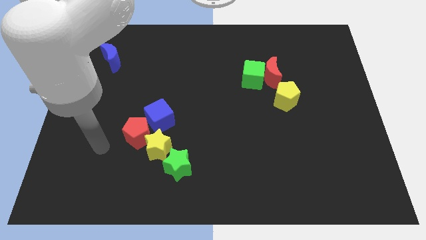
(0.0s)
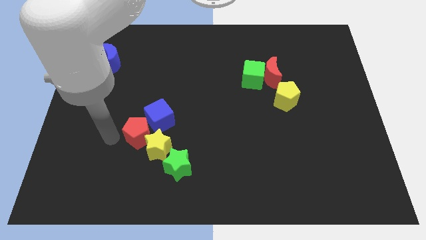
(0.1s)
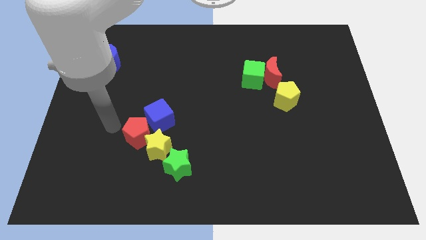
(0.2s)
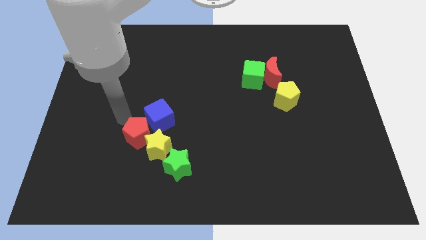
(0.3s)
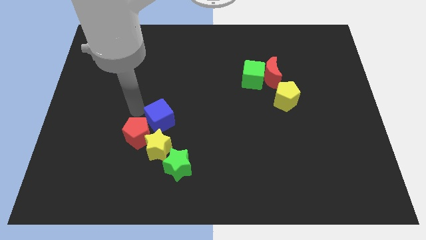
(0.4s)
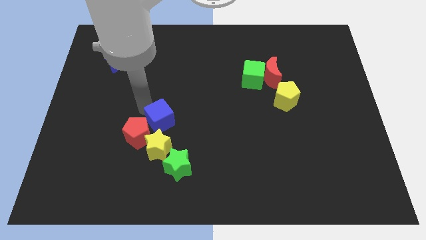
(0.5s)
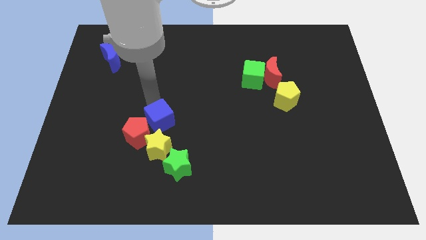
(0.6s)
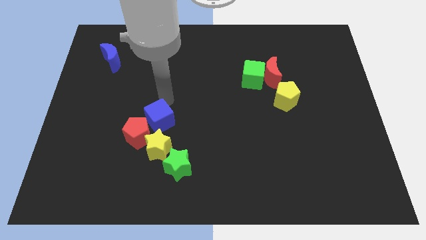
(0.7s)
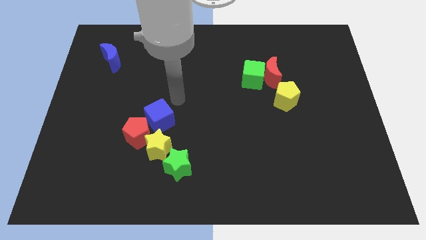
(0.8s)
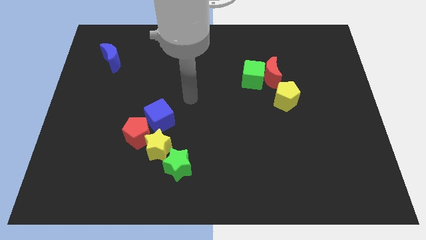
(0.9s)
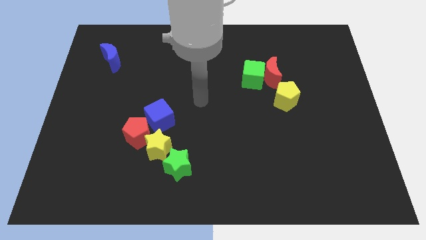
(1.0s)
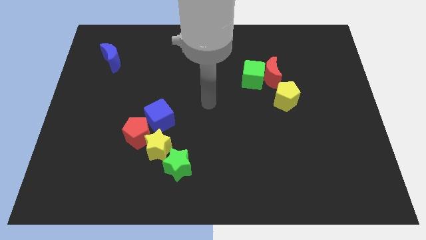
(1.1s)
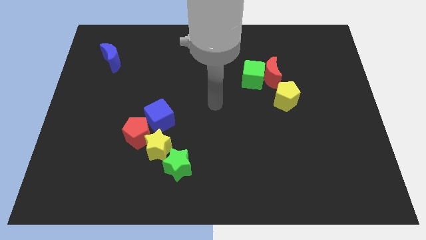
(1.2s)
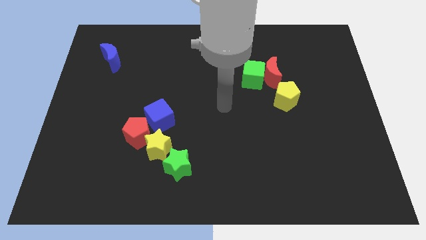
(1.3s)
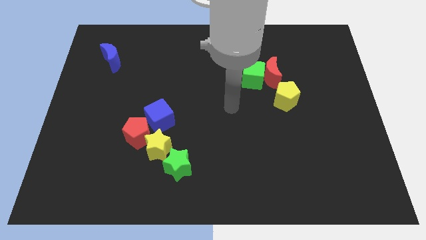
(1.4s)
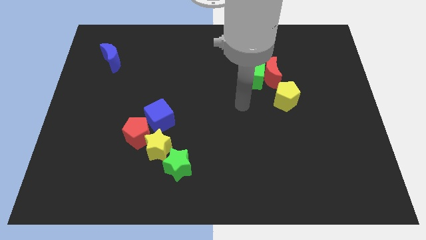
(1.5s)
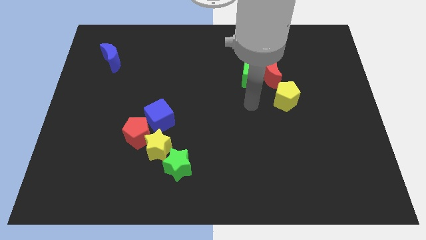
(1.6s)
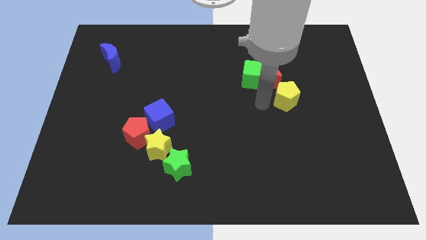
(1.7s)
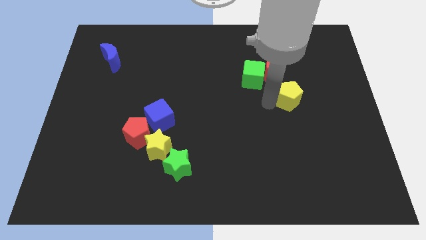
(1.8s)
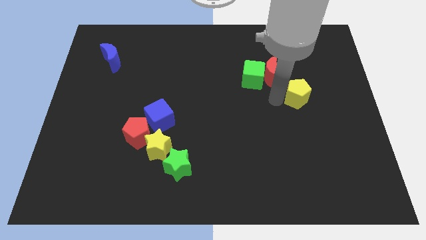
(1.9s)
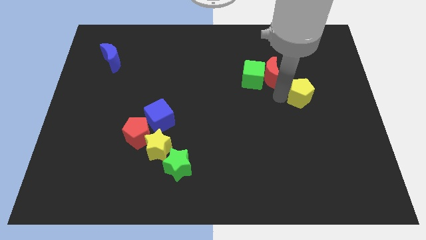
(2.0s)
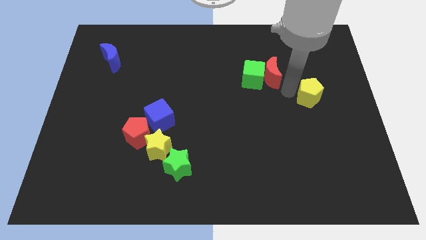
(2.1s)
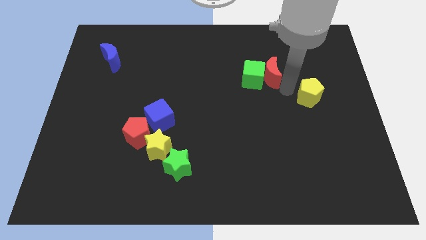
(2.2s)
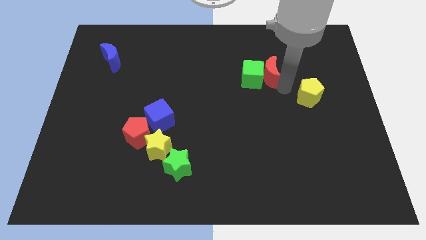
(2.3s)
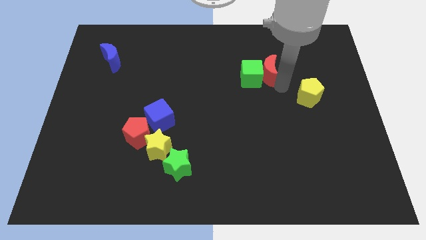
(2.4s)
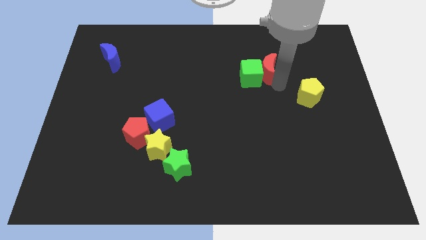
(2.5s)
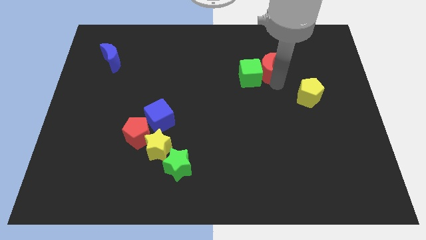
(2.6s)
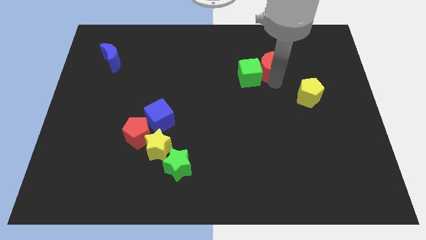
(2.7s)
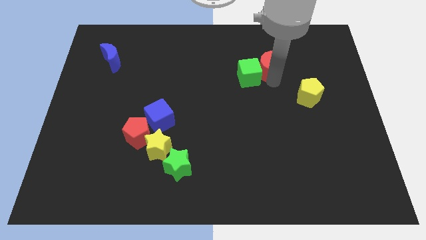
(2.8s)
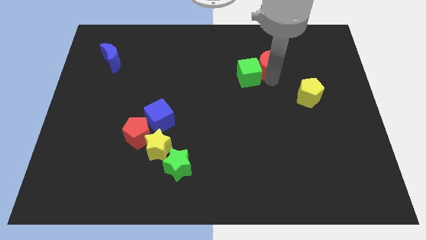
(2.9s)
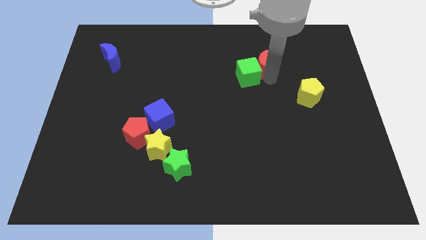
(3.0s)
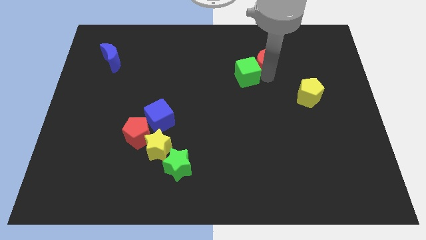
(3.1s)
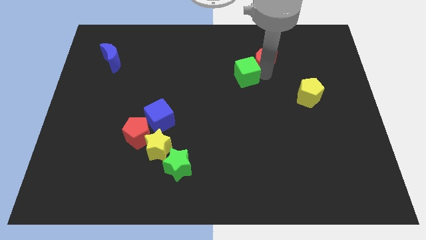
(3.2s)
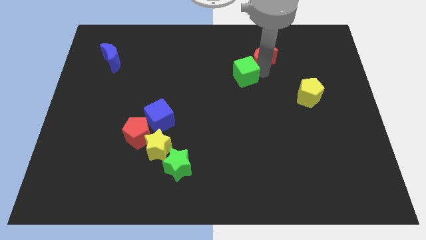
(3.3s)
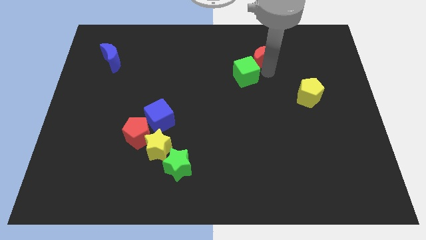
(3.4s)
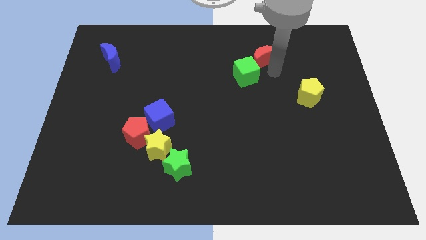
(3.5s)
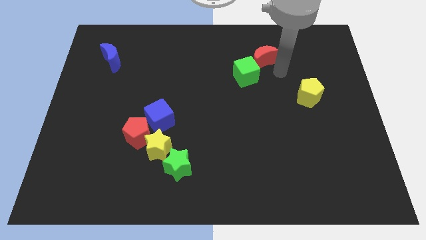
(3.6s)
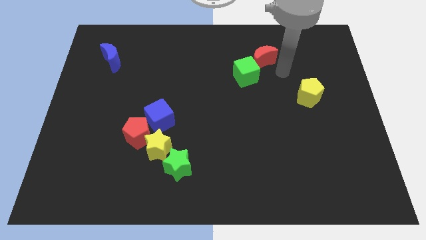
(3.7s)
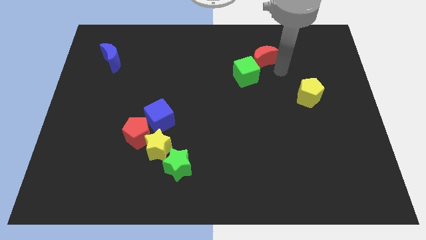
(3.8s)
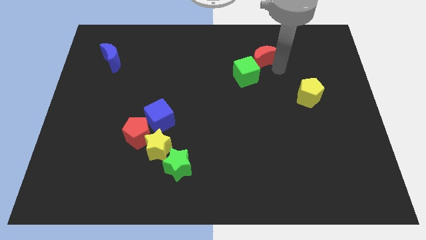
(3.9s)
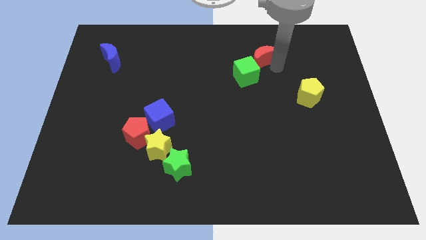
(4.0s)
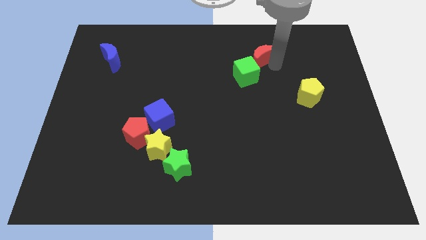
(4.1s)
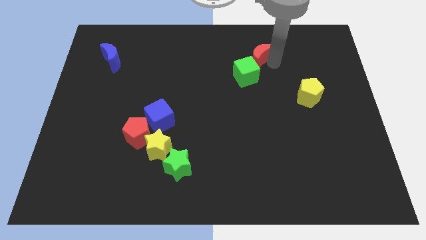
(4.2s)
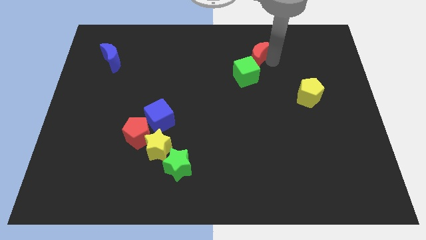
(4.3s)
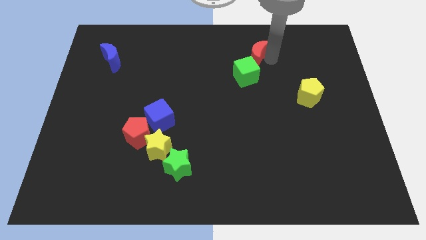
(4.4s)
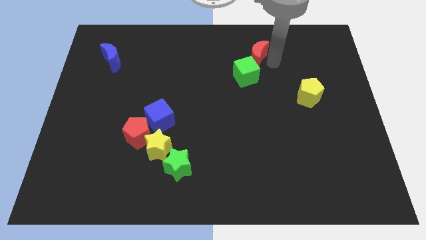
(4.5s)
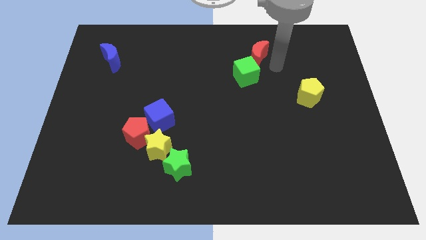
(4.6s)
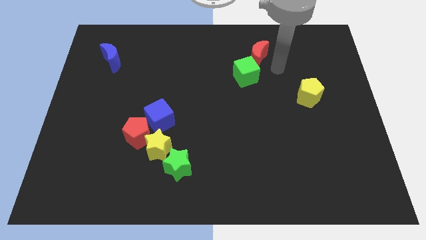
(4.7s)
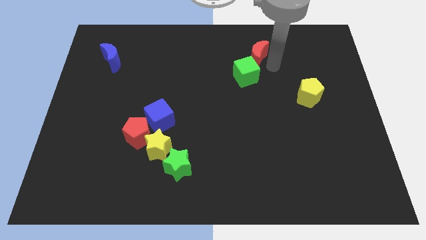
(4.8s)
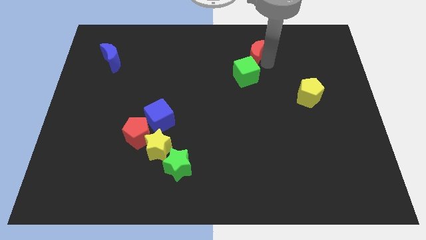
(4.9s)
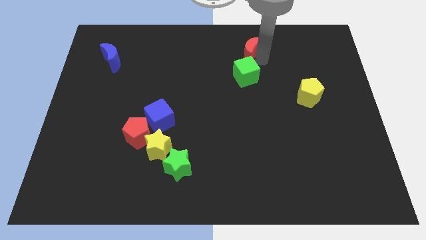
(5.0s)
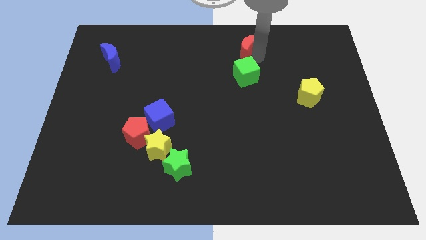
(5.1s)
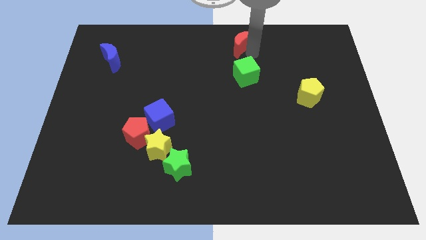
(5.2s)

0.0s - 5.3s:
push the red moon to the towards your base

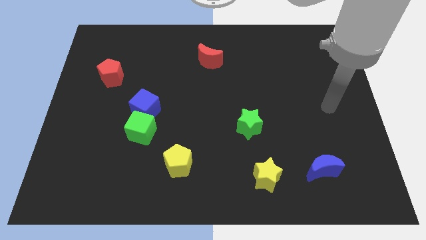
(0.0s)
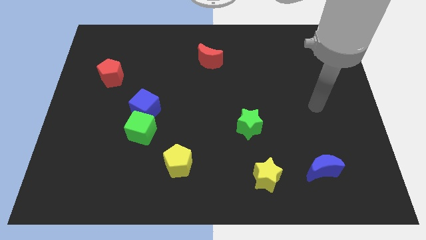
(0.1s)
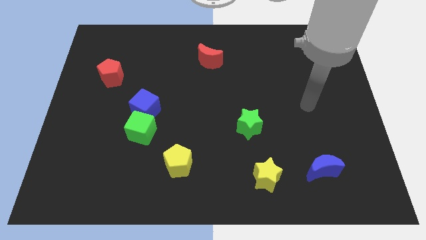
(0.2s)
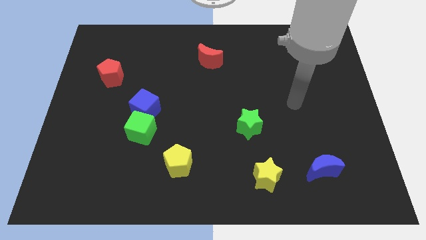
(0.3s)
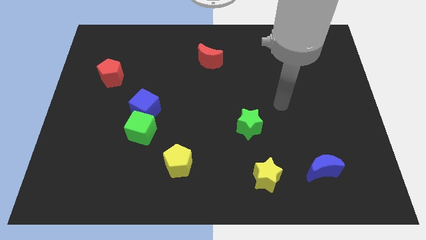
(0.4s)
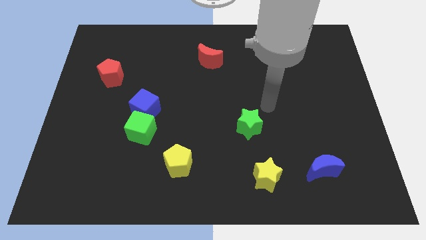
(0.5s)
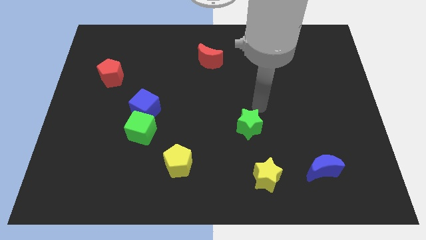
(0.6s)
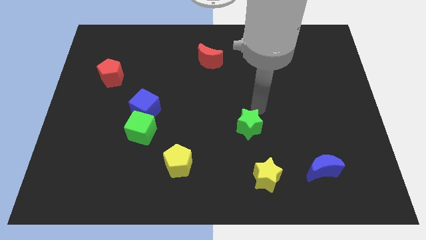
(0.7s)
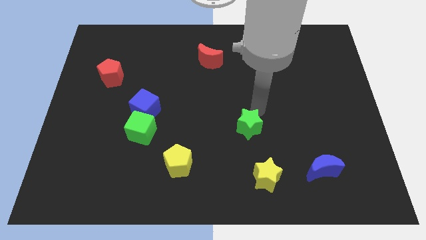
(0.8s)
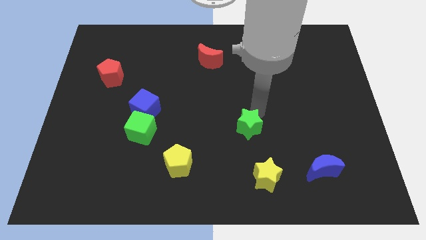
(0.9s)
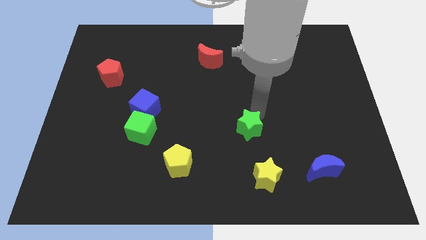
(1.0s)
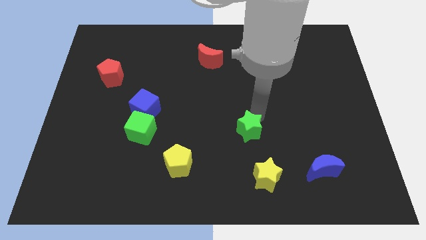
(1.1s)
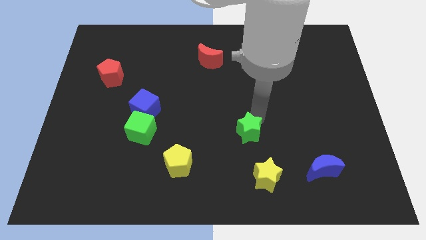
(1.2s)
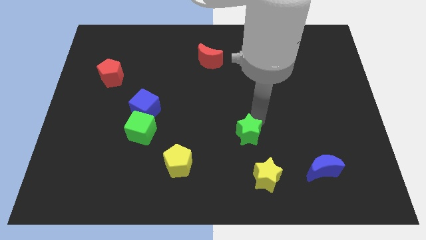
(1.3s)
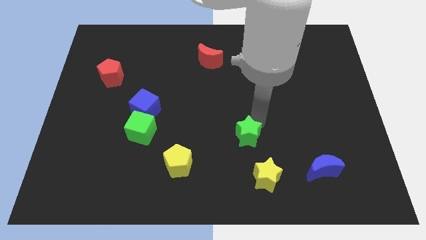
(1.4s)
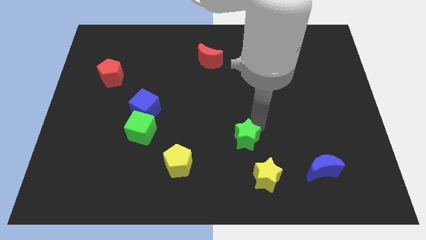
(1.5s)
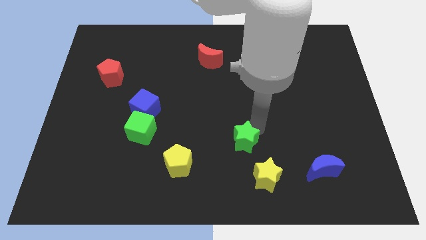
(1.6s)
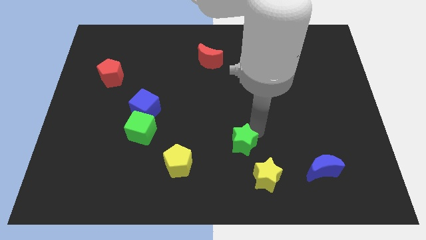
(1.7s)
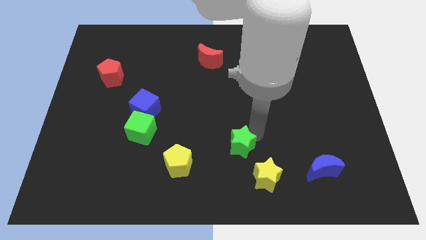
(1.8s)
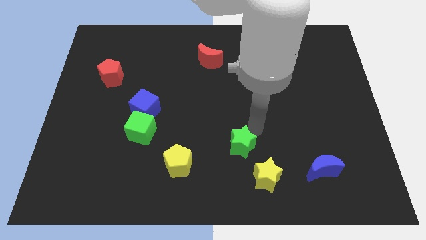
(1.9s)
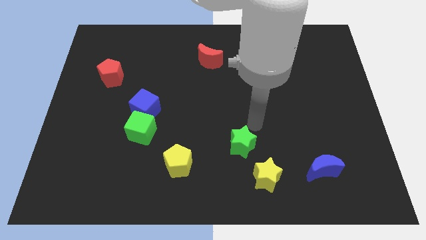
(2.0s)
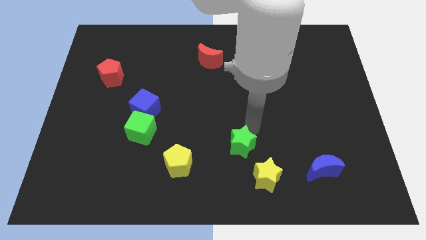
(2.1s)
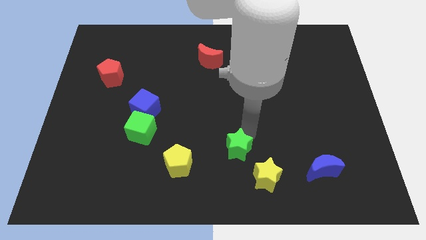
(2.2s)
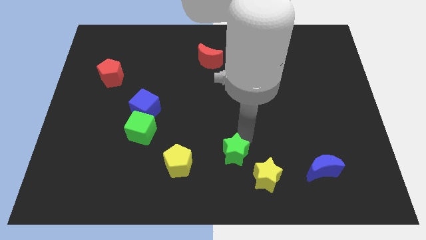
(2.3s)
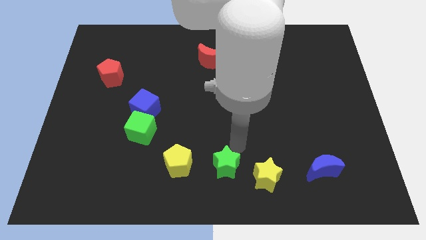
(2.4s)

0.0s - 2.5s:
put the green star to the bottom side
